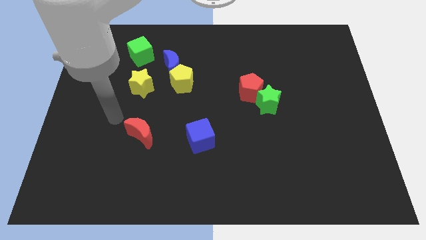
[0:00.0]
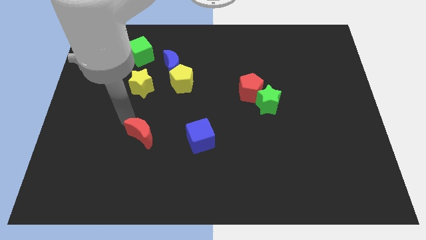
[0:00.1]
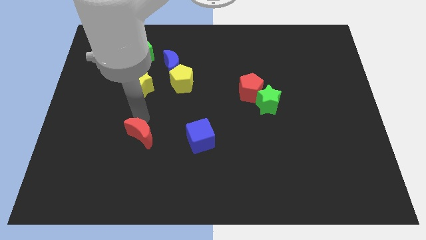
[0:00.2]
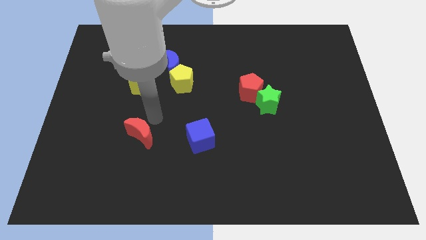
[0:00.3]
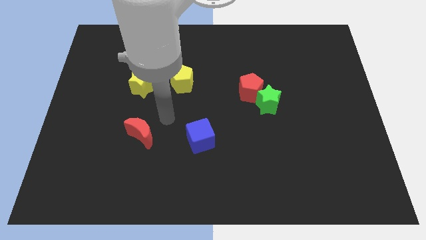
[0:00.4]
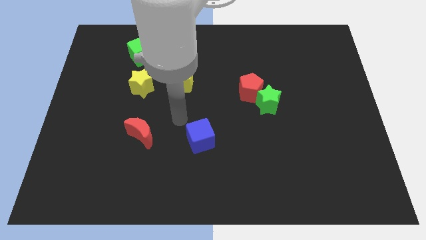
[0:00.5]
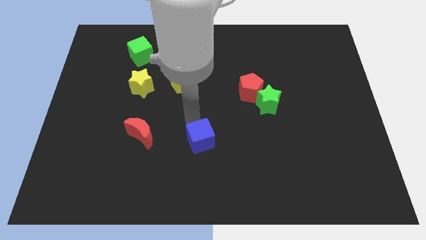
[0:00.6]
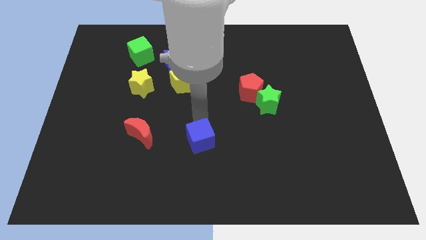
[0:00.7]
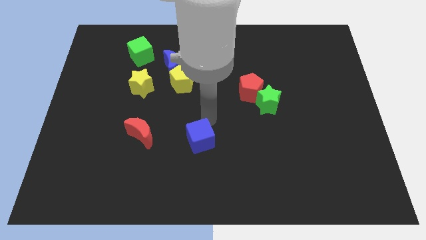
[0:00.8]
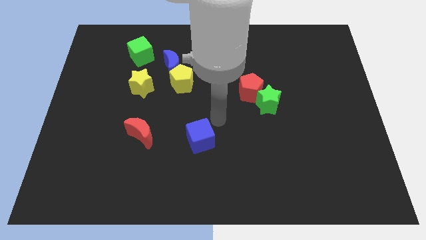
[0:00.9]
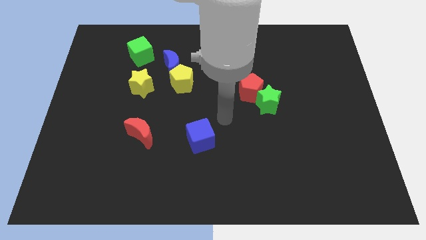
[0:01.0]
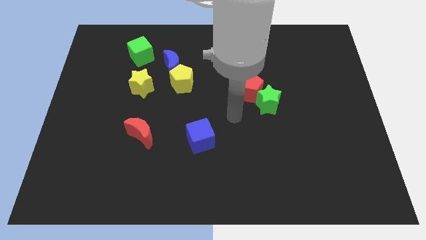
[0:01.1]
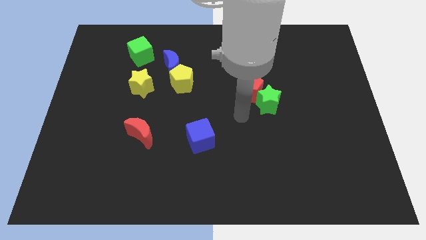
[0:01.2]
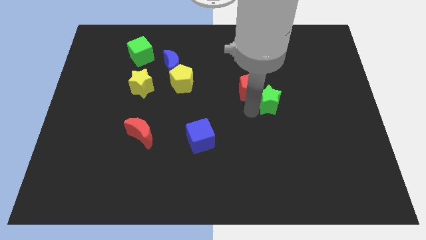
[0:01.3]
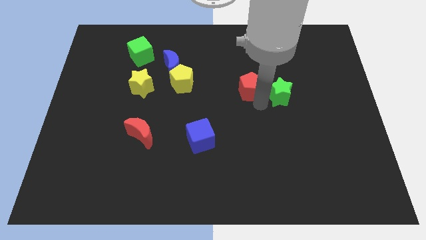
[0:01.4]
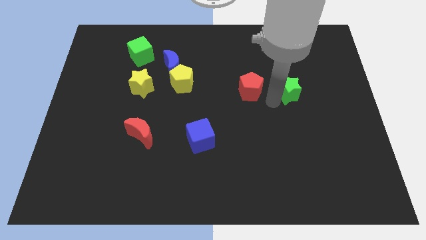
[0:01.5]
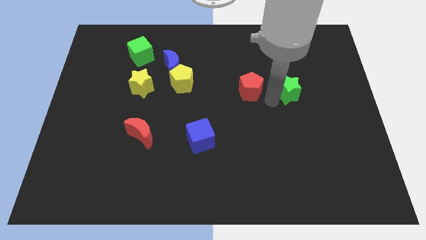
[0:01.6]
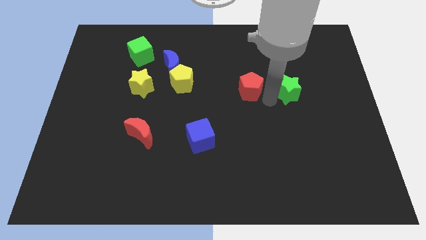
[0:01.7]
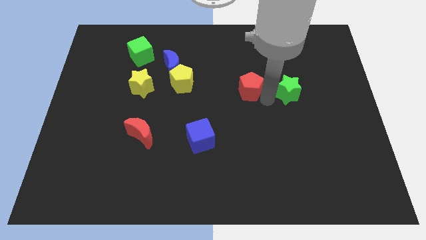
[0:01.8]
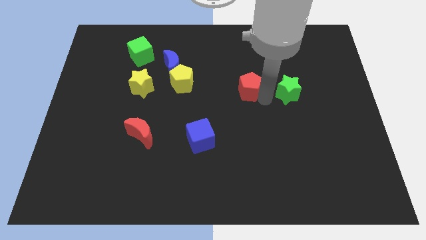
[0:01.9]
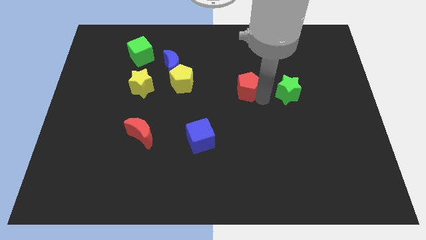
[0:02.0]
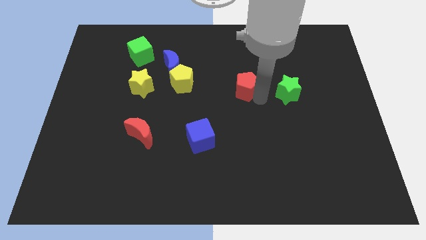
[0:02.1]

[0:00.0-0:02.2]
move the red pentagon away from the green star

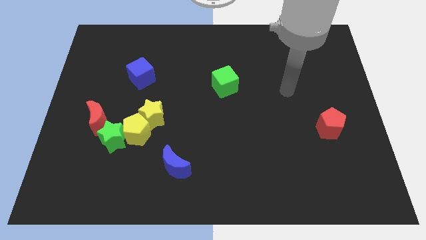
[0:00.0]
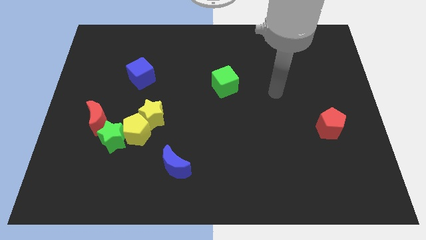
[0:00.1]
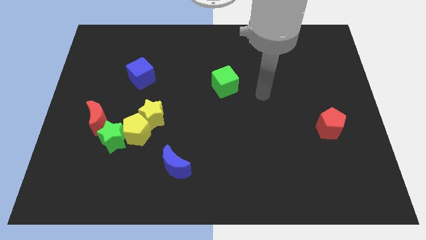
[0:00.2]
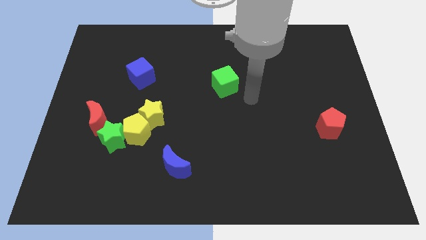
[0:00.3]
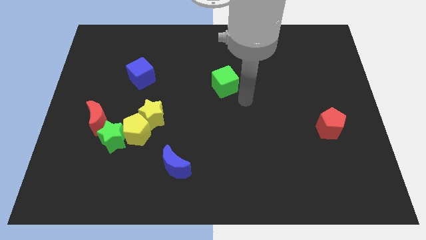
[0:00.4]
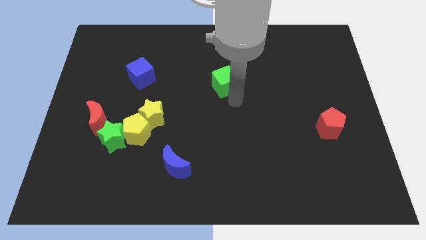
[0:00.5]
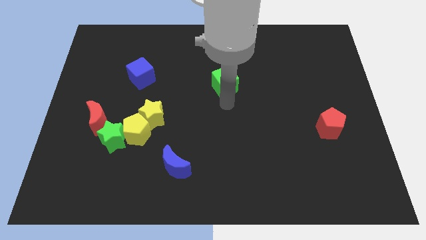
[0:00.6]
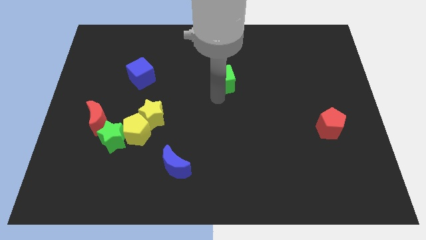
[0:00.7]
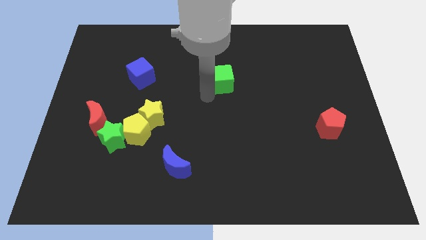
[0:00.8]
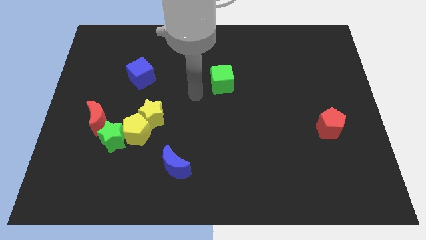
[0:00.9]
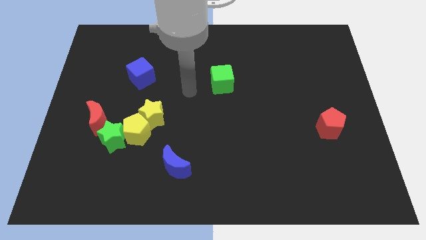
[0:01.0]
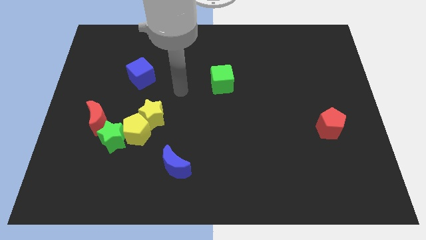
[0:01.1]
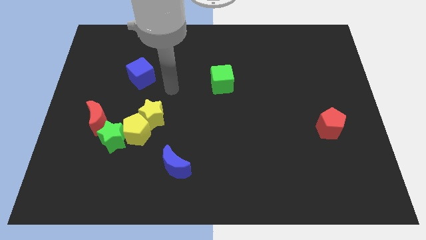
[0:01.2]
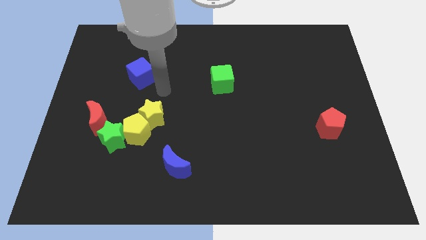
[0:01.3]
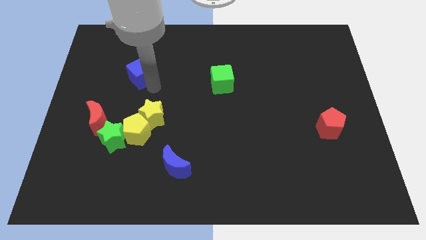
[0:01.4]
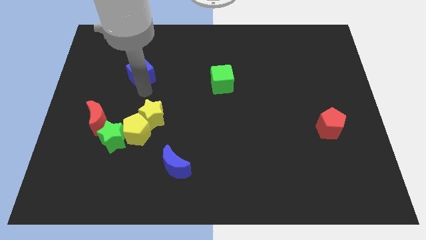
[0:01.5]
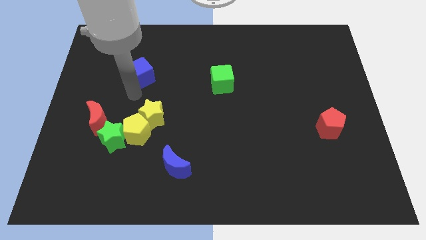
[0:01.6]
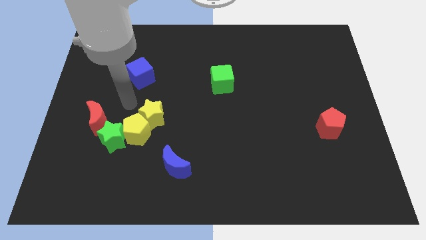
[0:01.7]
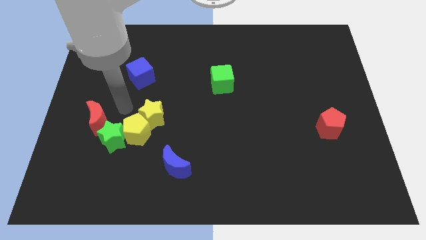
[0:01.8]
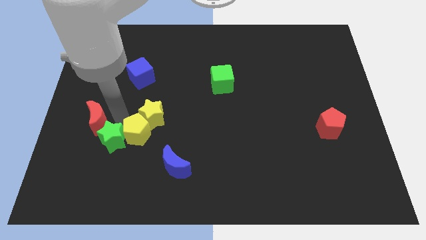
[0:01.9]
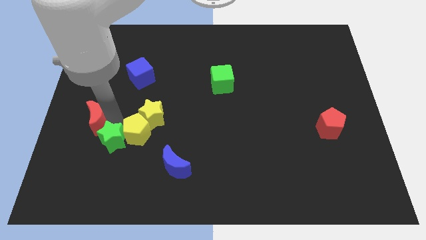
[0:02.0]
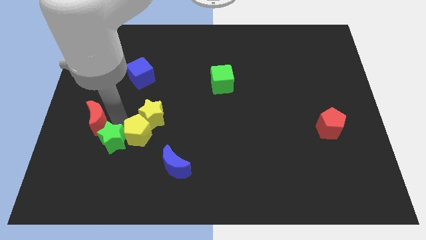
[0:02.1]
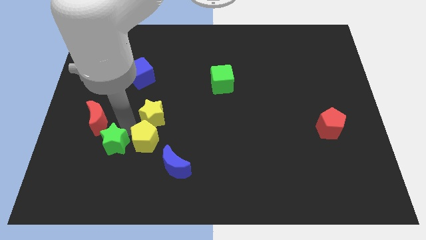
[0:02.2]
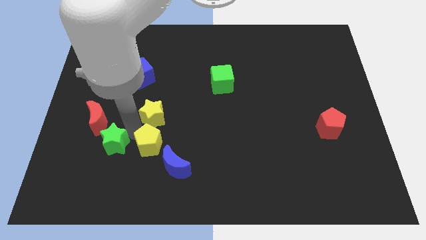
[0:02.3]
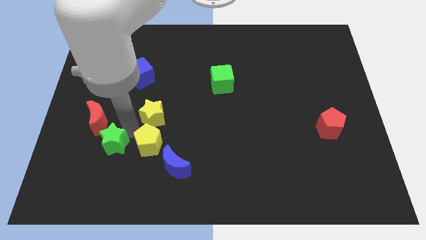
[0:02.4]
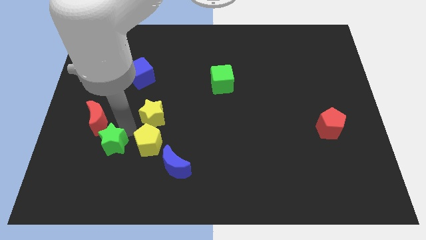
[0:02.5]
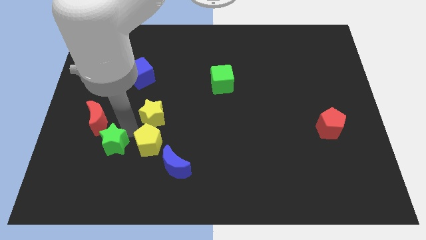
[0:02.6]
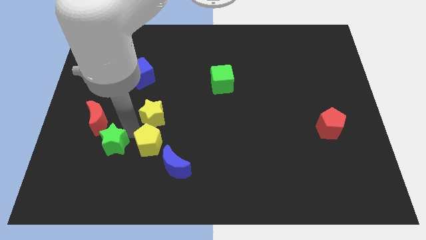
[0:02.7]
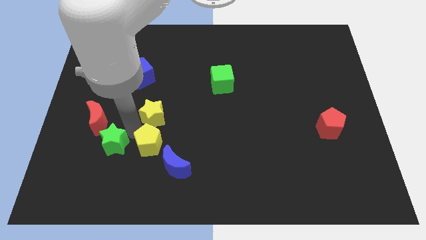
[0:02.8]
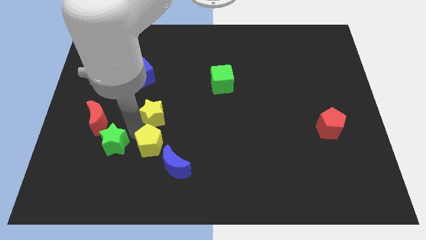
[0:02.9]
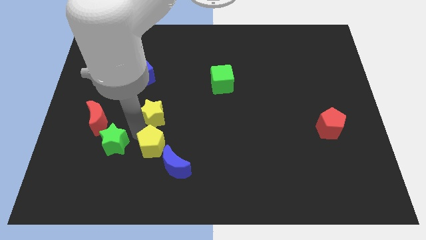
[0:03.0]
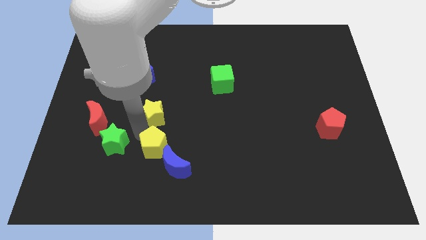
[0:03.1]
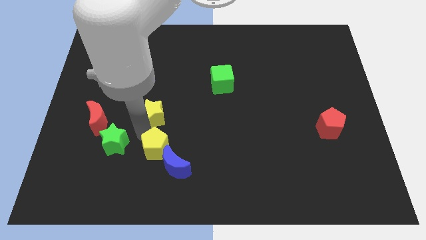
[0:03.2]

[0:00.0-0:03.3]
move the yellow pentagon away from the group of blocks

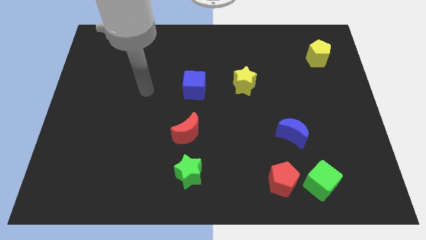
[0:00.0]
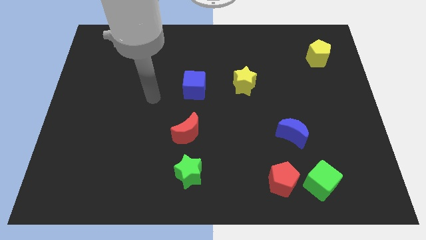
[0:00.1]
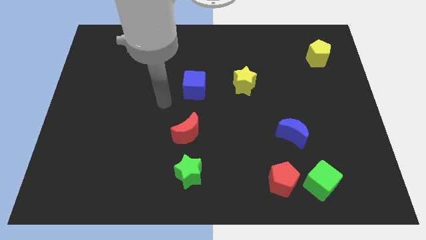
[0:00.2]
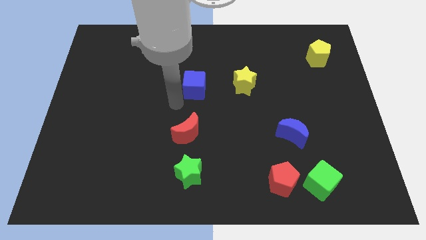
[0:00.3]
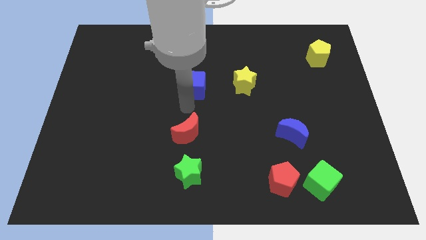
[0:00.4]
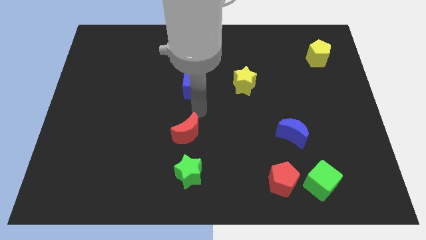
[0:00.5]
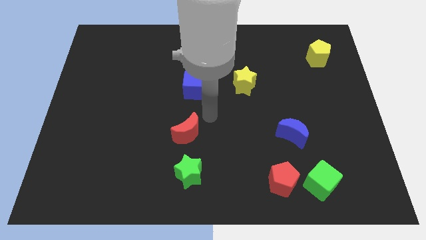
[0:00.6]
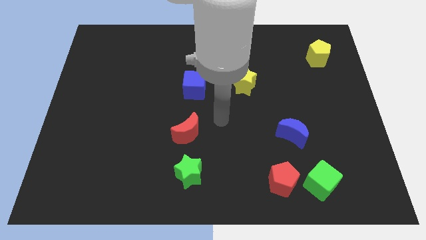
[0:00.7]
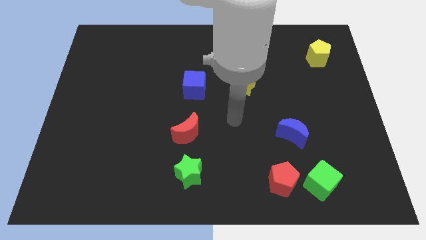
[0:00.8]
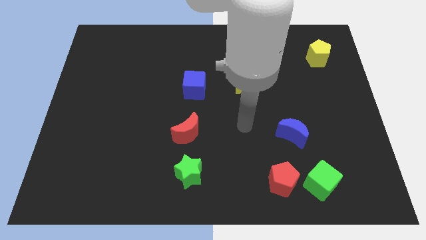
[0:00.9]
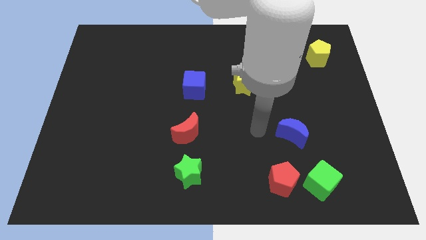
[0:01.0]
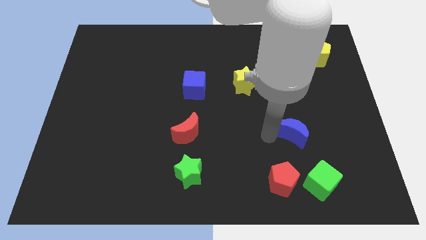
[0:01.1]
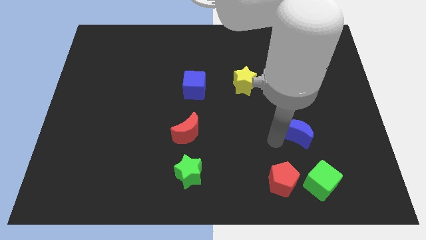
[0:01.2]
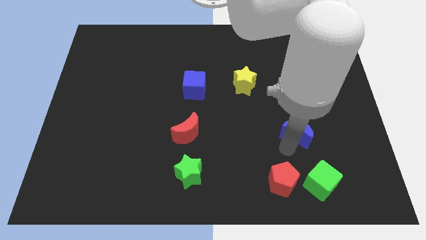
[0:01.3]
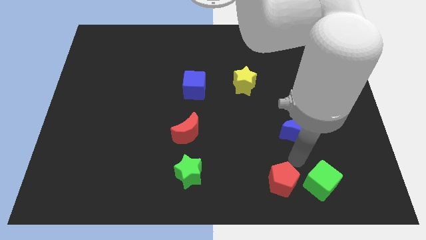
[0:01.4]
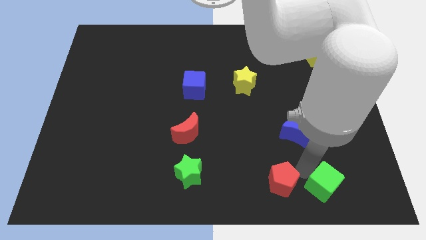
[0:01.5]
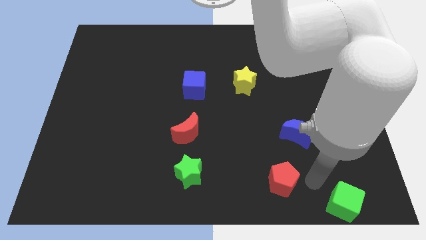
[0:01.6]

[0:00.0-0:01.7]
pull the red pentagon apart from the green cube

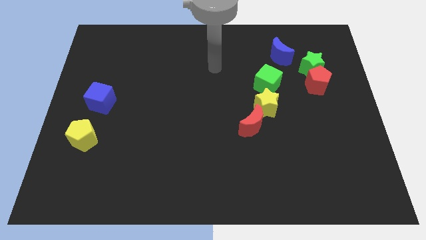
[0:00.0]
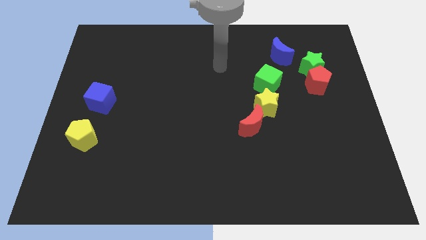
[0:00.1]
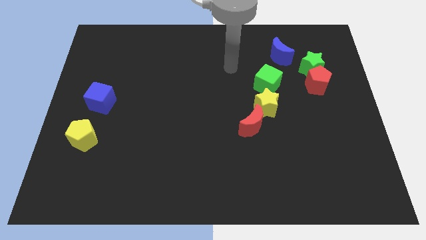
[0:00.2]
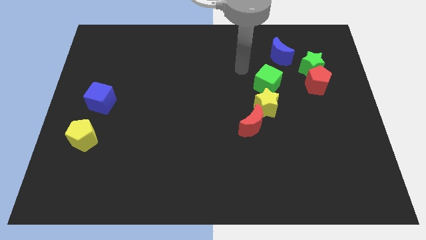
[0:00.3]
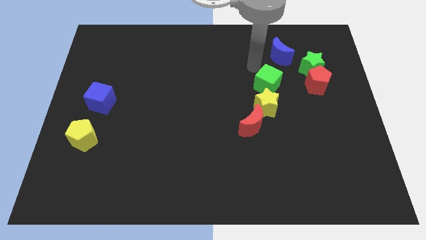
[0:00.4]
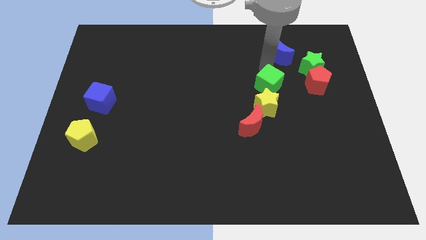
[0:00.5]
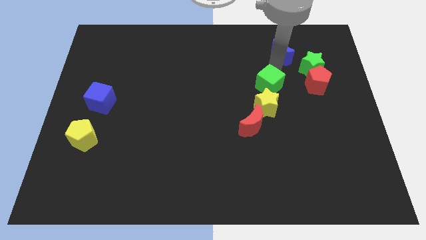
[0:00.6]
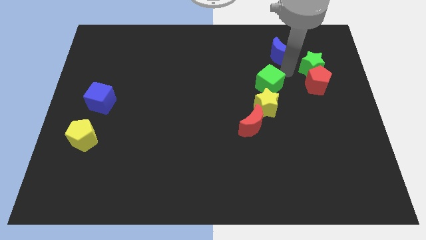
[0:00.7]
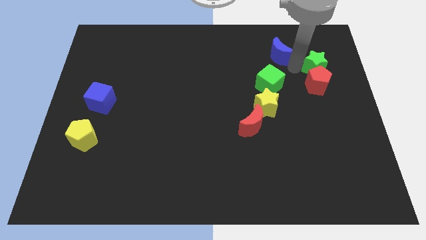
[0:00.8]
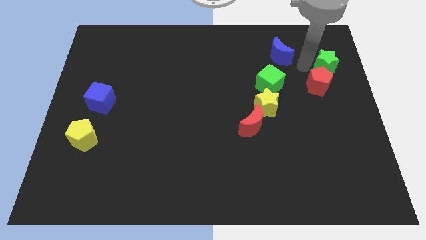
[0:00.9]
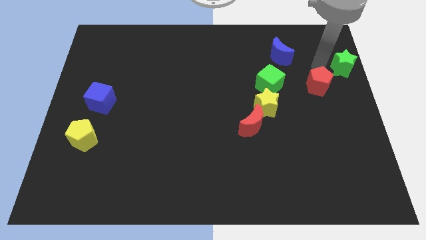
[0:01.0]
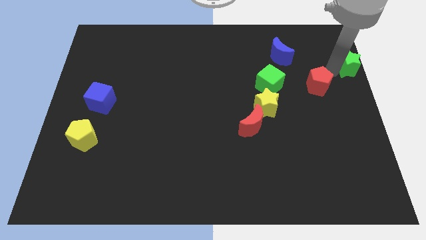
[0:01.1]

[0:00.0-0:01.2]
pull the red pentagon apart from the green star

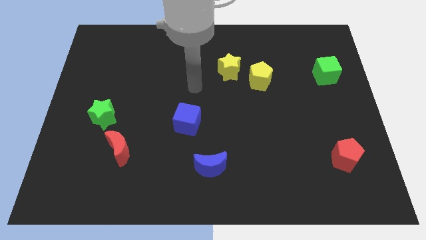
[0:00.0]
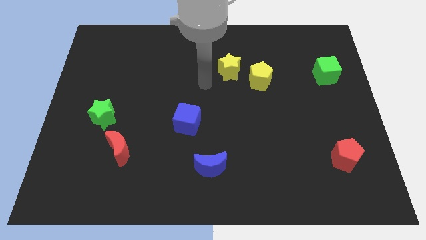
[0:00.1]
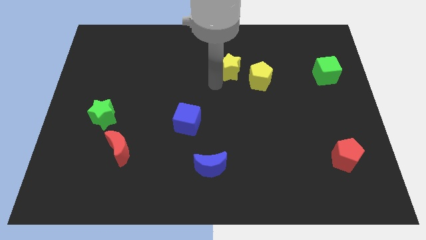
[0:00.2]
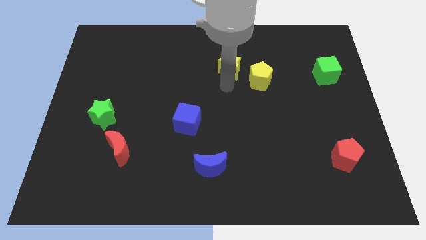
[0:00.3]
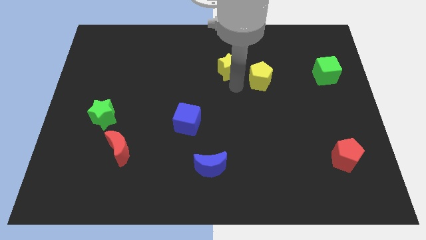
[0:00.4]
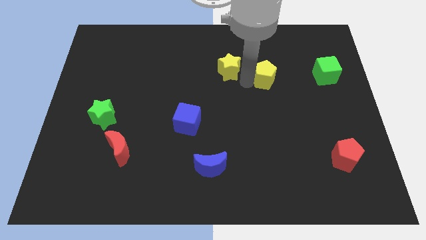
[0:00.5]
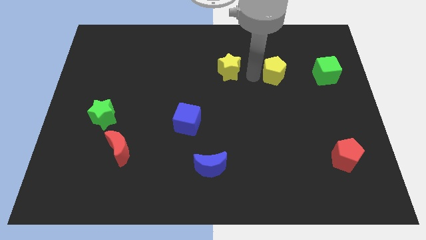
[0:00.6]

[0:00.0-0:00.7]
move the yellow star away from the yellow pentagon

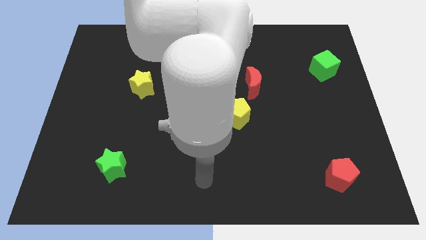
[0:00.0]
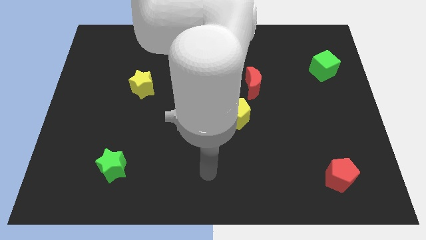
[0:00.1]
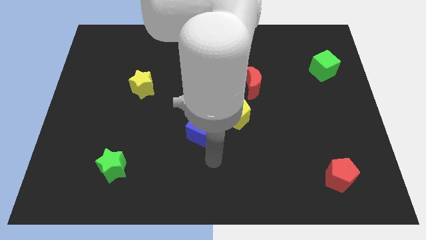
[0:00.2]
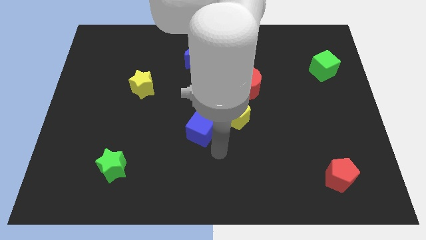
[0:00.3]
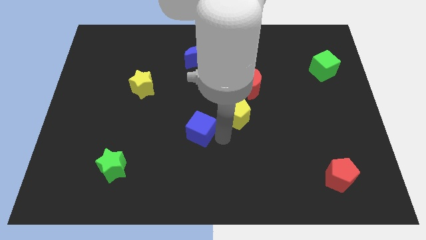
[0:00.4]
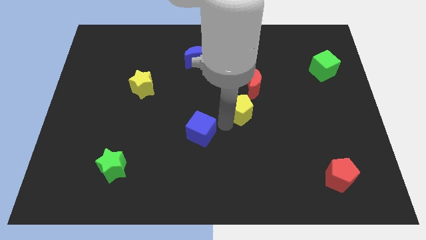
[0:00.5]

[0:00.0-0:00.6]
pull the blue cube apart from the yellow pentagon
